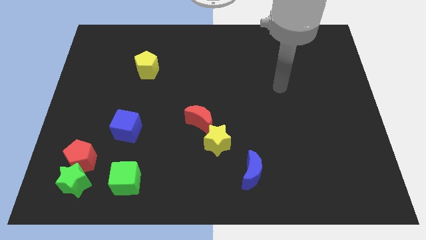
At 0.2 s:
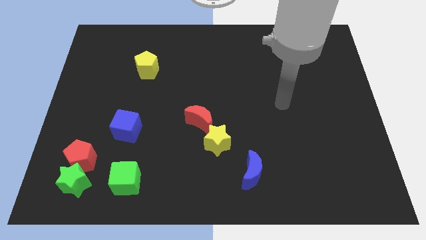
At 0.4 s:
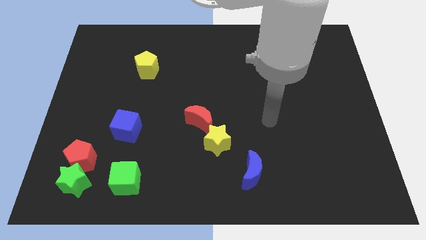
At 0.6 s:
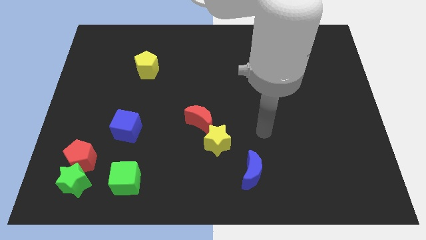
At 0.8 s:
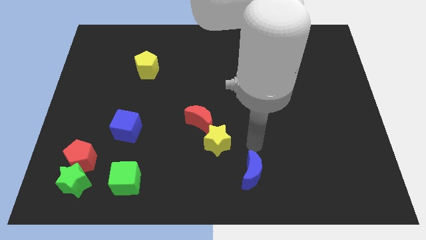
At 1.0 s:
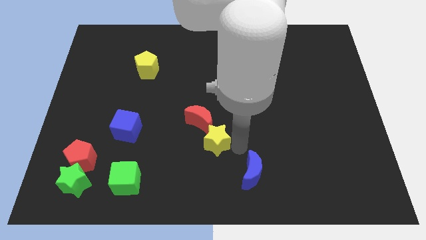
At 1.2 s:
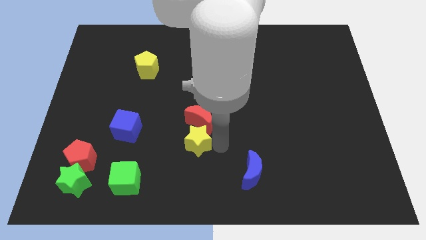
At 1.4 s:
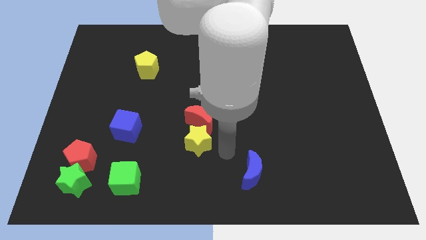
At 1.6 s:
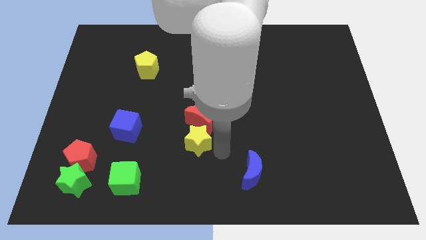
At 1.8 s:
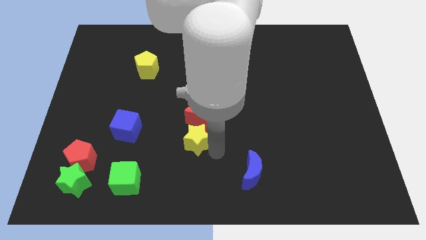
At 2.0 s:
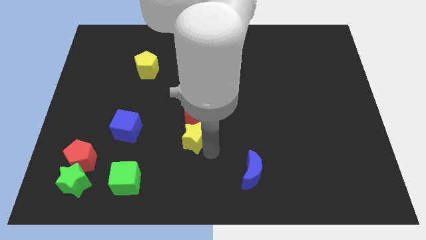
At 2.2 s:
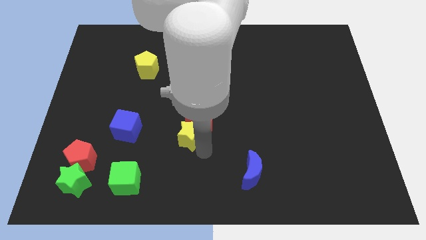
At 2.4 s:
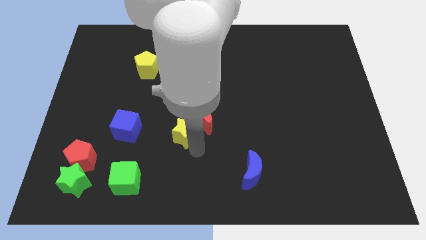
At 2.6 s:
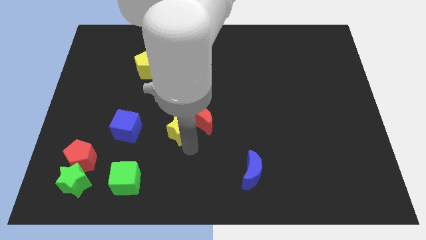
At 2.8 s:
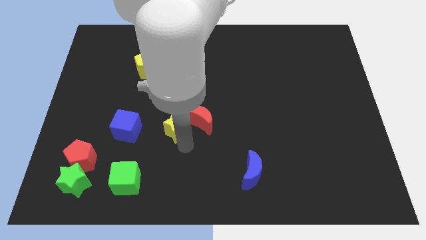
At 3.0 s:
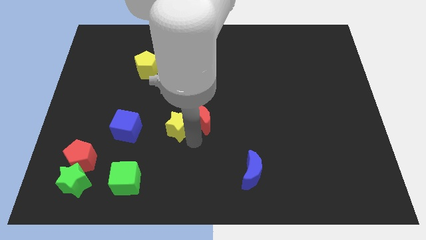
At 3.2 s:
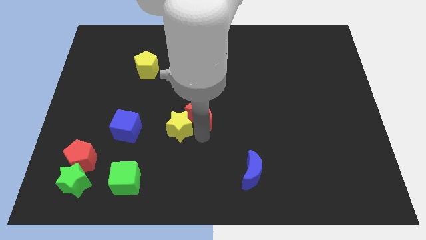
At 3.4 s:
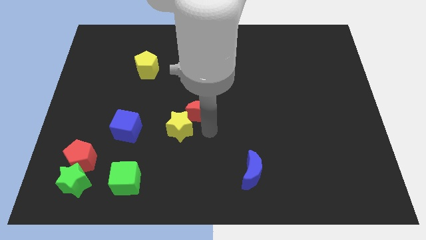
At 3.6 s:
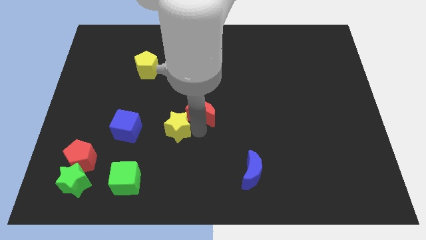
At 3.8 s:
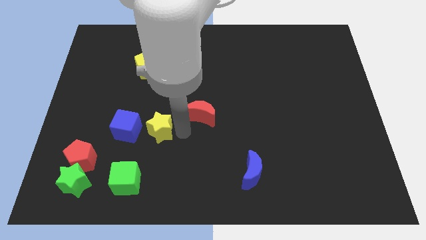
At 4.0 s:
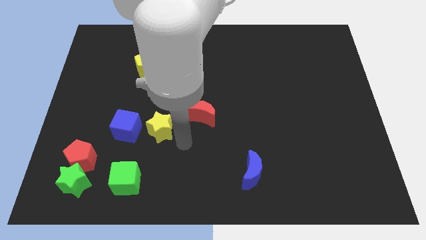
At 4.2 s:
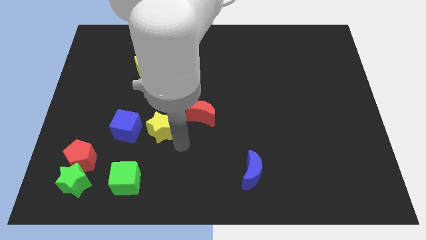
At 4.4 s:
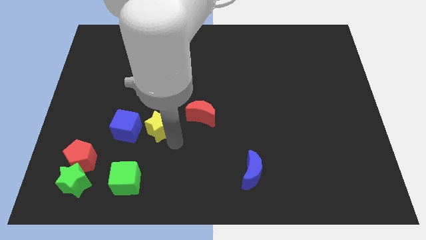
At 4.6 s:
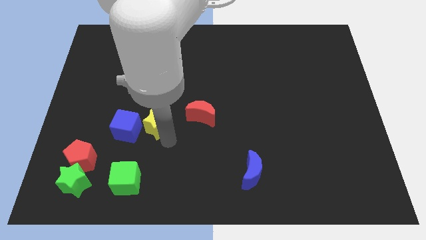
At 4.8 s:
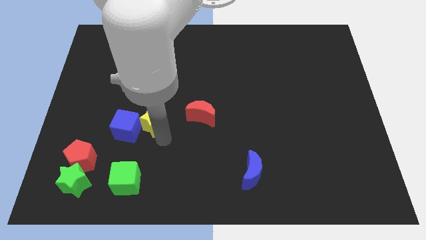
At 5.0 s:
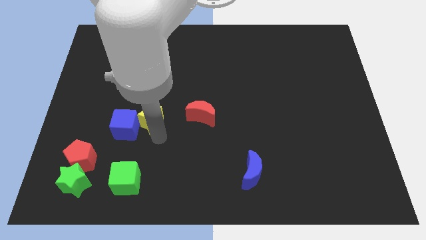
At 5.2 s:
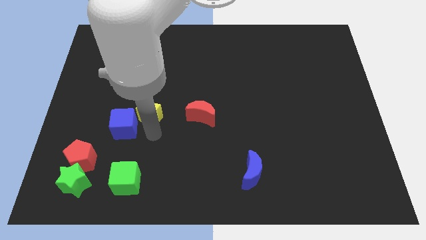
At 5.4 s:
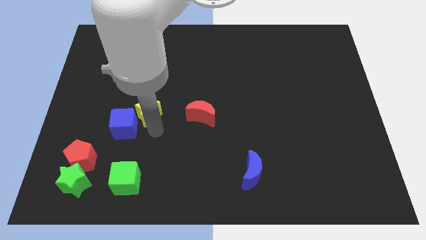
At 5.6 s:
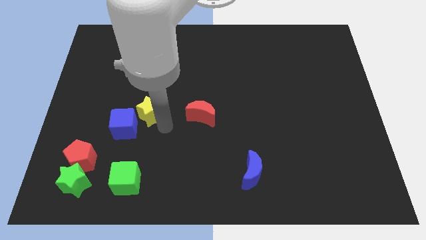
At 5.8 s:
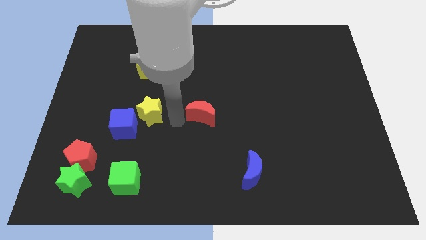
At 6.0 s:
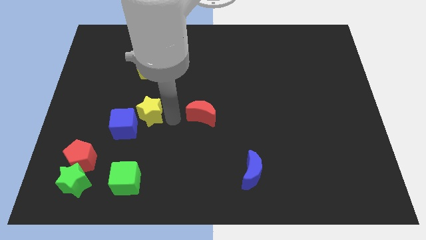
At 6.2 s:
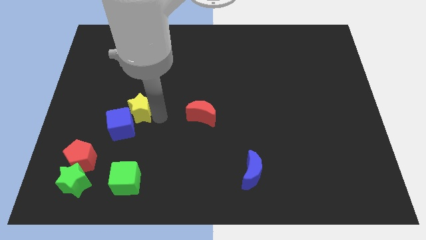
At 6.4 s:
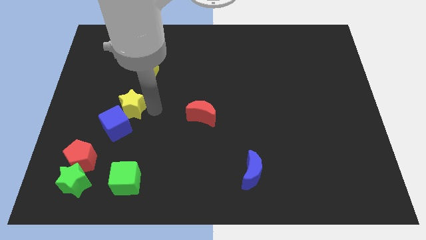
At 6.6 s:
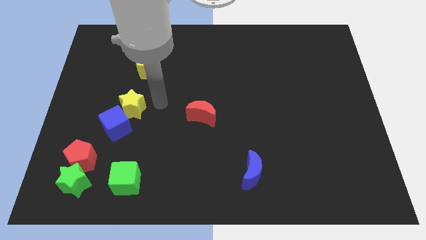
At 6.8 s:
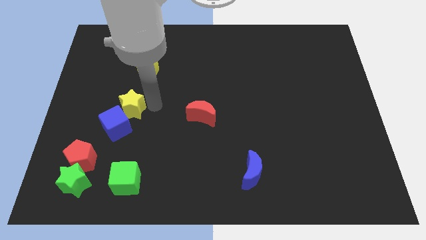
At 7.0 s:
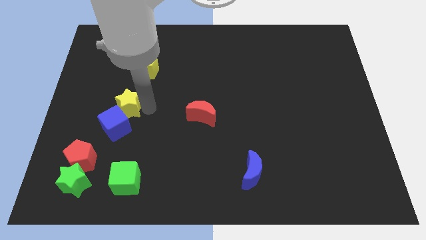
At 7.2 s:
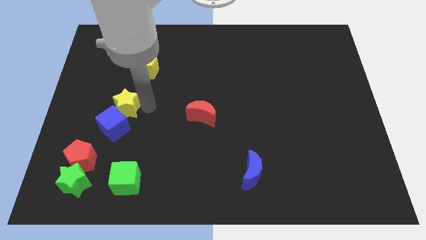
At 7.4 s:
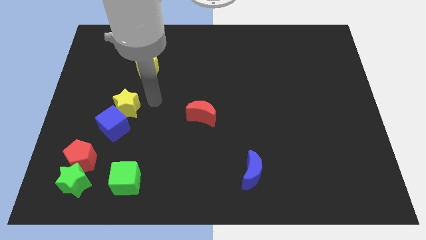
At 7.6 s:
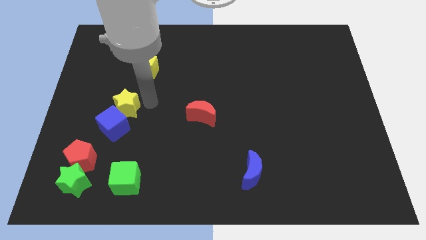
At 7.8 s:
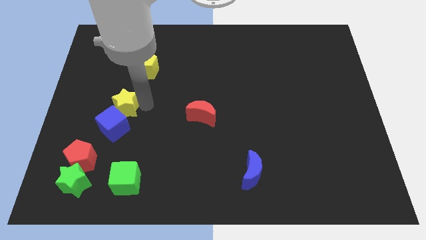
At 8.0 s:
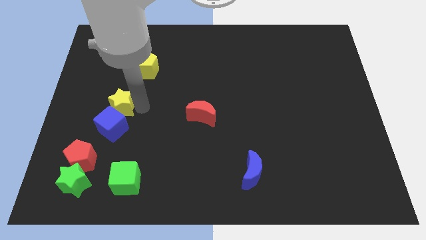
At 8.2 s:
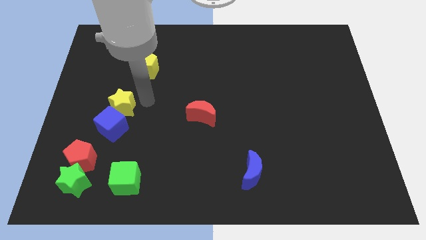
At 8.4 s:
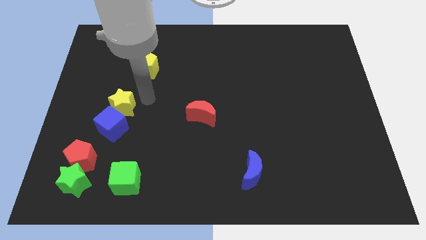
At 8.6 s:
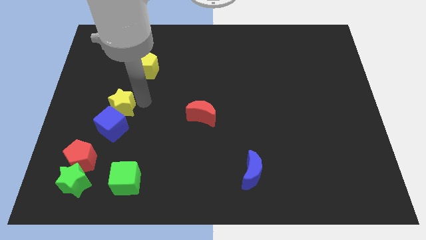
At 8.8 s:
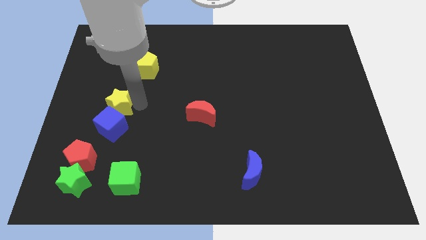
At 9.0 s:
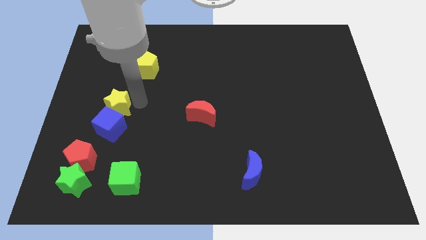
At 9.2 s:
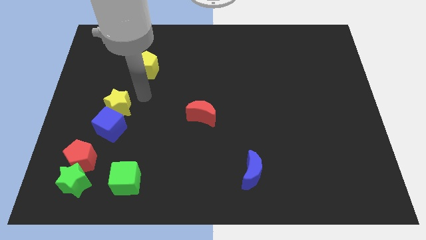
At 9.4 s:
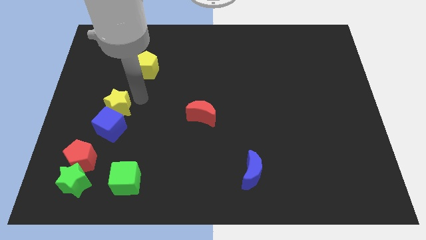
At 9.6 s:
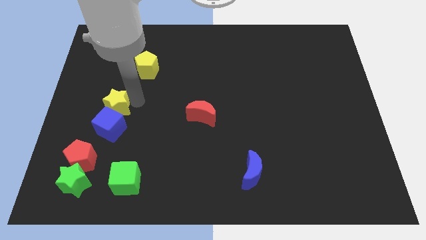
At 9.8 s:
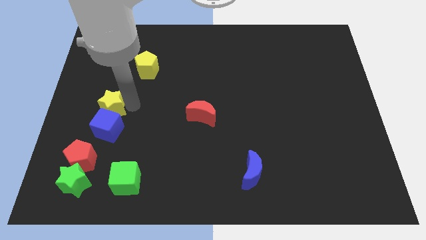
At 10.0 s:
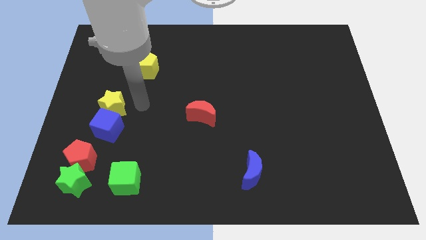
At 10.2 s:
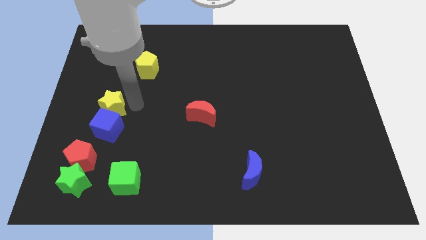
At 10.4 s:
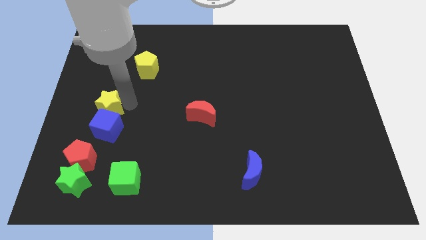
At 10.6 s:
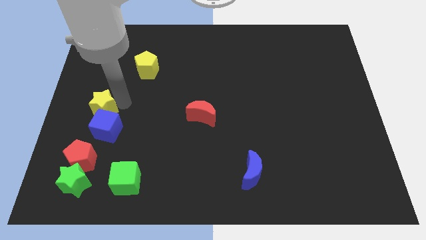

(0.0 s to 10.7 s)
put the yellow star to the center left

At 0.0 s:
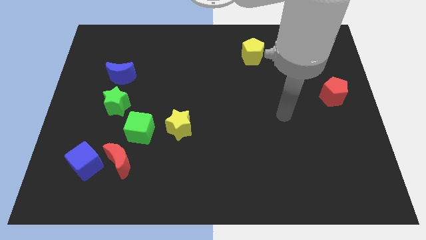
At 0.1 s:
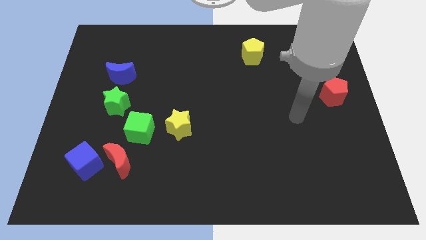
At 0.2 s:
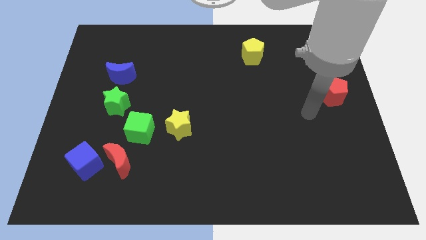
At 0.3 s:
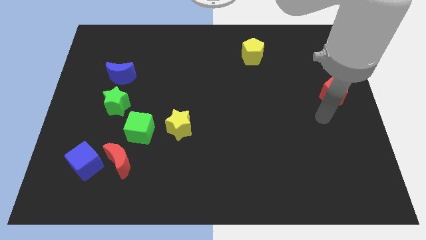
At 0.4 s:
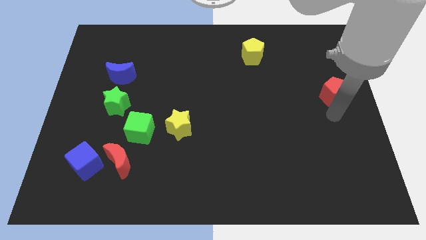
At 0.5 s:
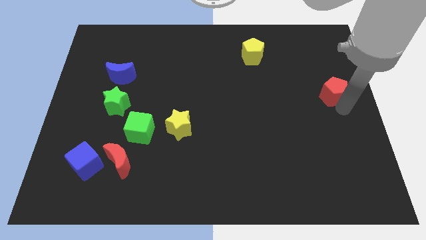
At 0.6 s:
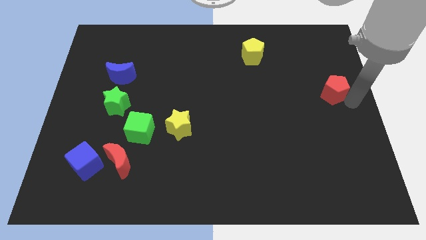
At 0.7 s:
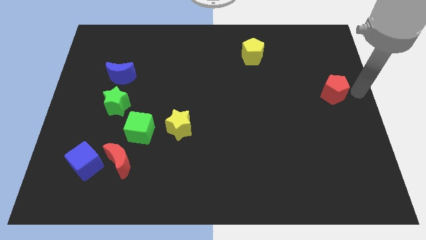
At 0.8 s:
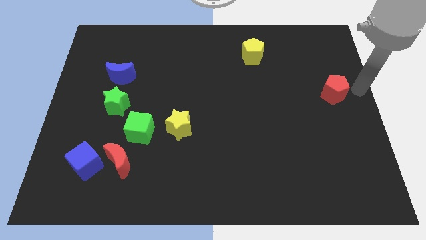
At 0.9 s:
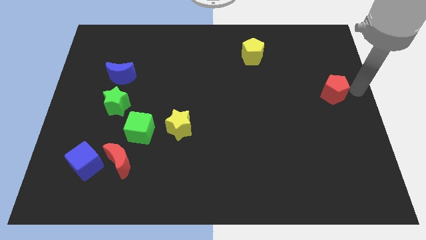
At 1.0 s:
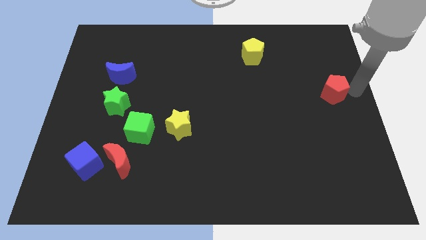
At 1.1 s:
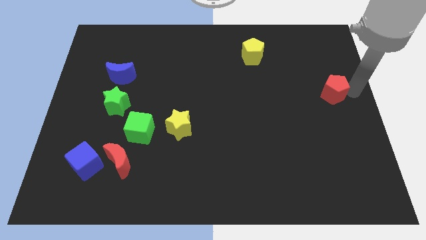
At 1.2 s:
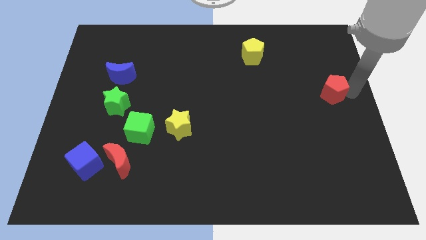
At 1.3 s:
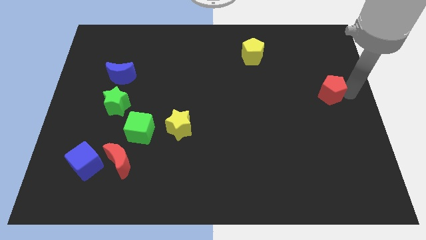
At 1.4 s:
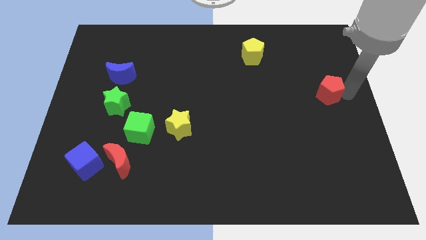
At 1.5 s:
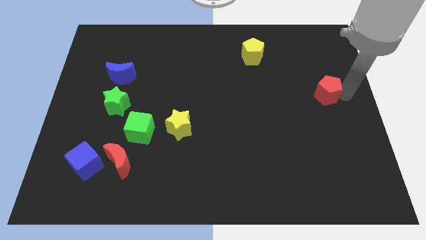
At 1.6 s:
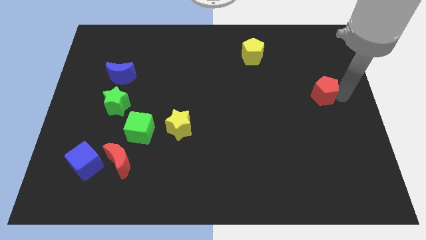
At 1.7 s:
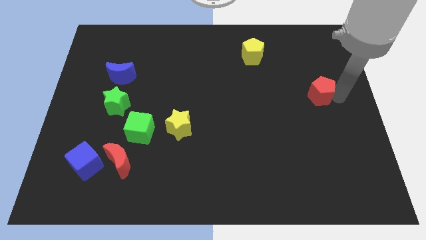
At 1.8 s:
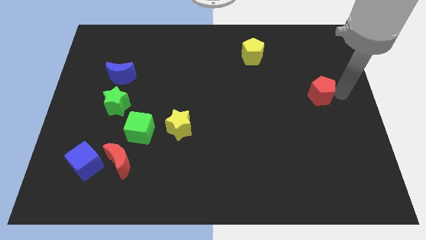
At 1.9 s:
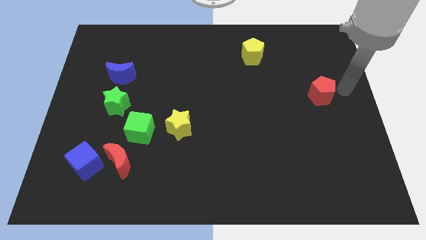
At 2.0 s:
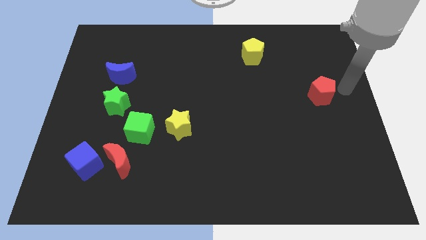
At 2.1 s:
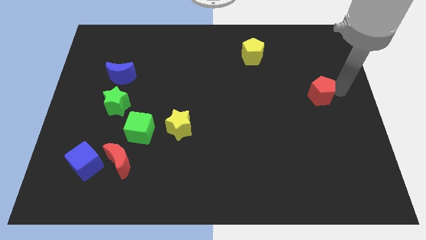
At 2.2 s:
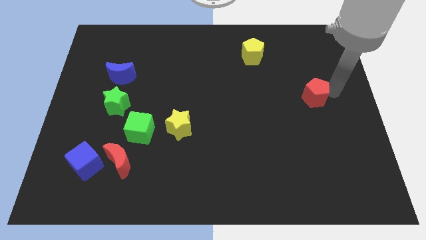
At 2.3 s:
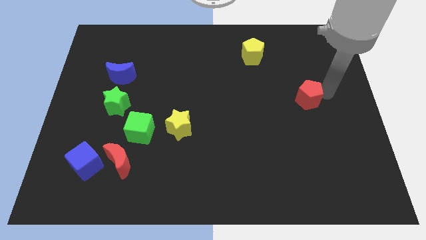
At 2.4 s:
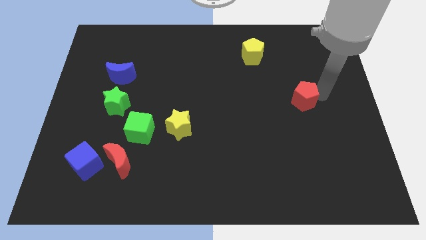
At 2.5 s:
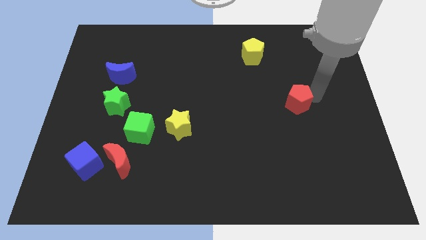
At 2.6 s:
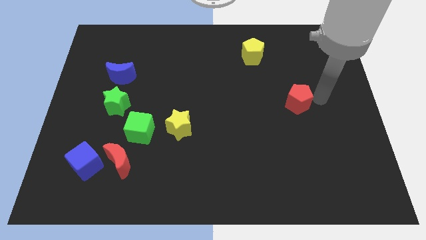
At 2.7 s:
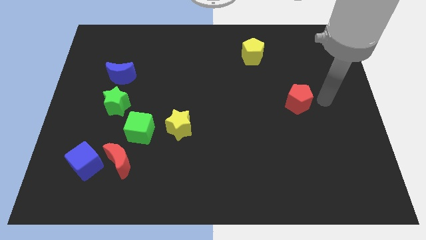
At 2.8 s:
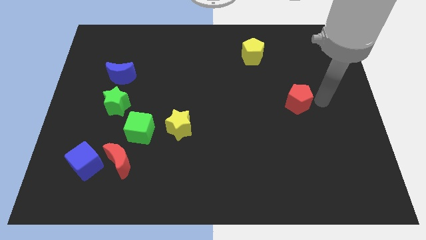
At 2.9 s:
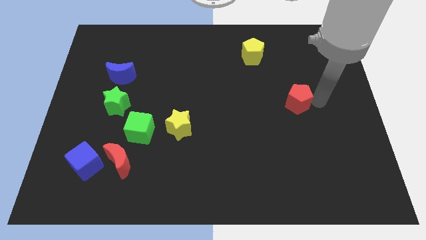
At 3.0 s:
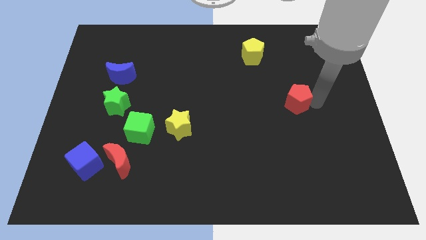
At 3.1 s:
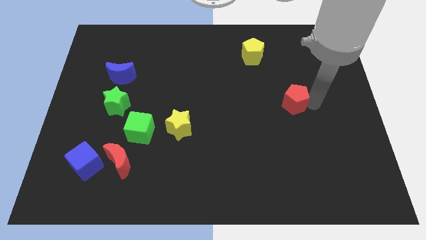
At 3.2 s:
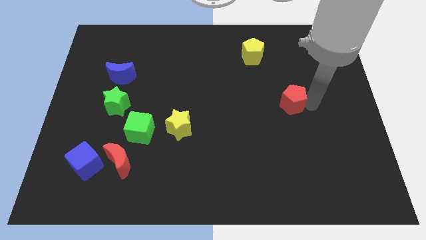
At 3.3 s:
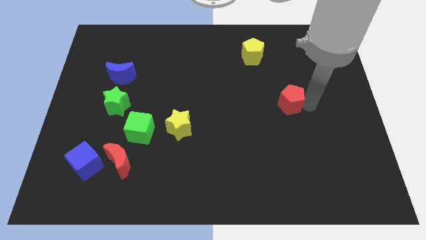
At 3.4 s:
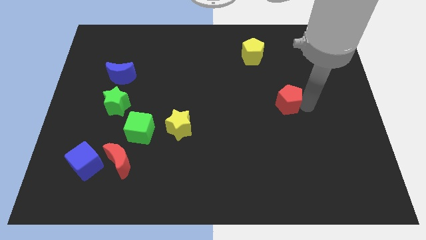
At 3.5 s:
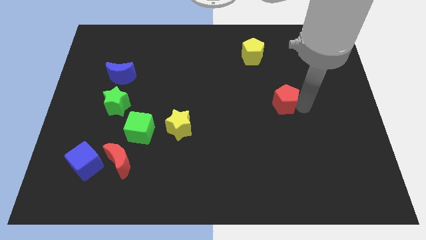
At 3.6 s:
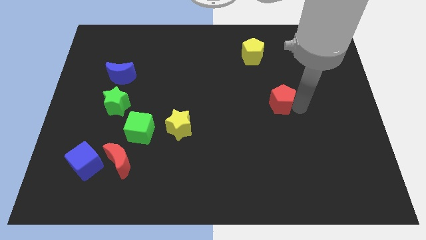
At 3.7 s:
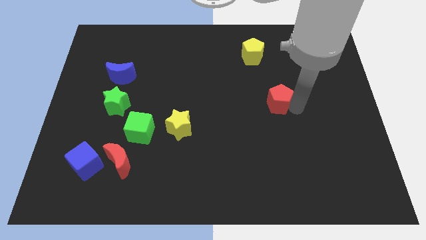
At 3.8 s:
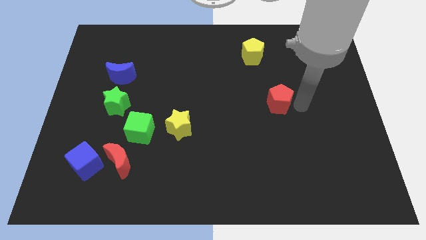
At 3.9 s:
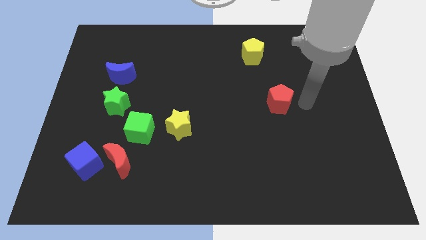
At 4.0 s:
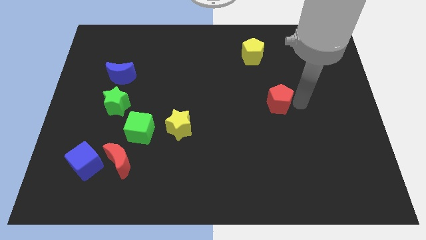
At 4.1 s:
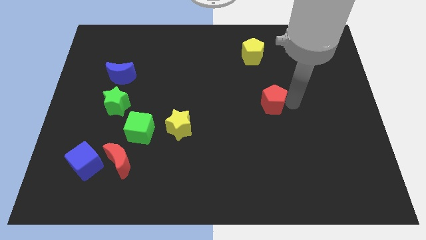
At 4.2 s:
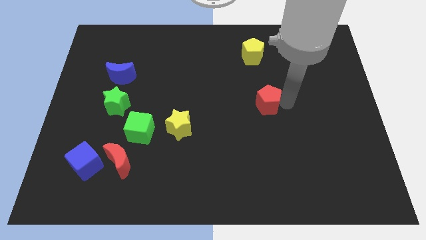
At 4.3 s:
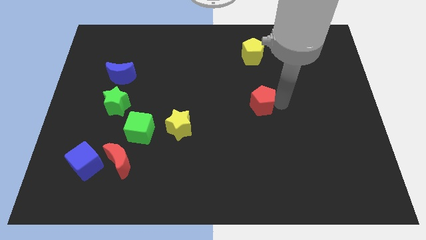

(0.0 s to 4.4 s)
push the red pentagon to the middle
